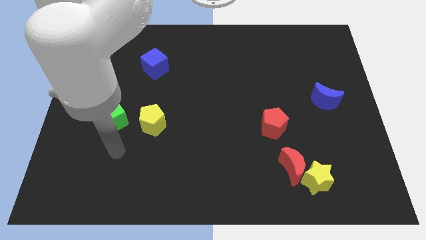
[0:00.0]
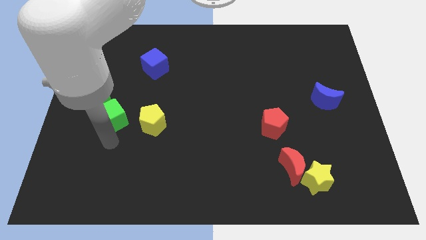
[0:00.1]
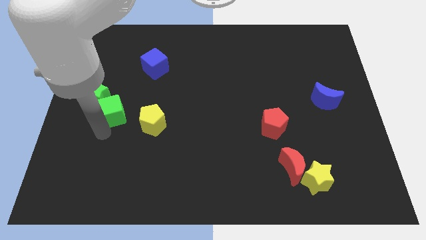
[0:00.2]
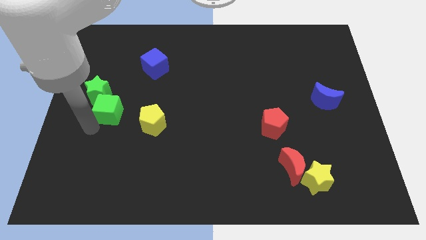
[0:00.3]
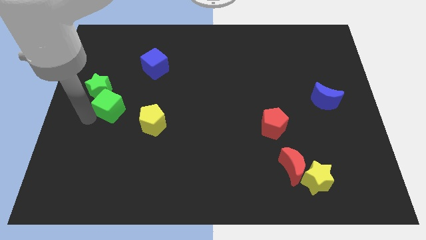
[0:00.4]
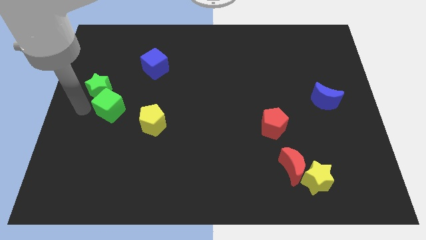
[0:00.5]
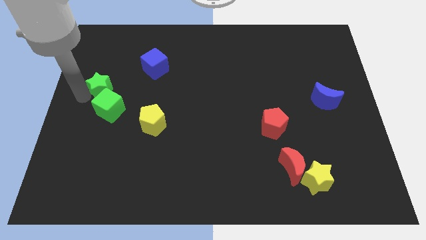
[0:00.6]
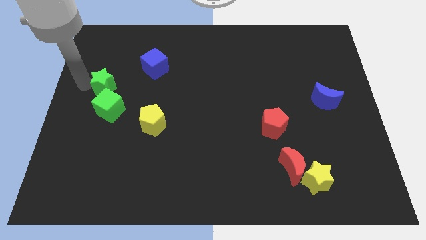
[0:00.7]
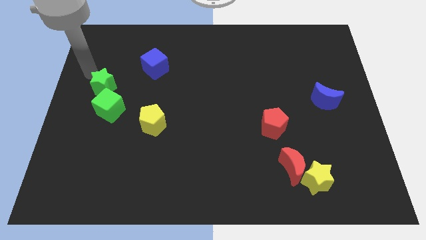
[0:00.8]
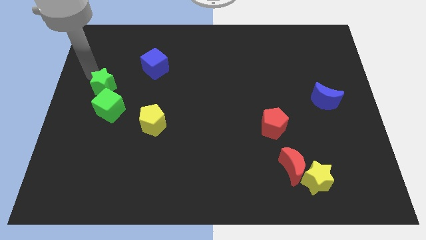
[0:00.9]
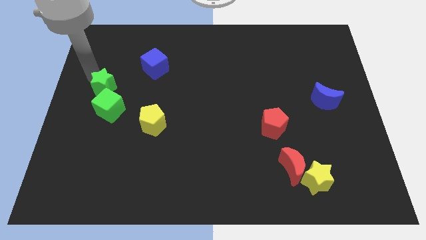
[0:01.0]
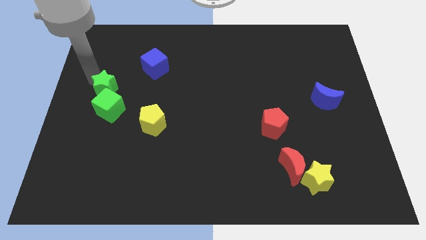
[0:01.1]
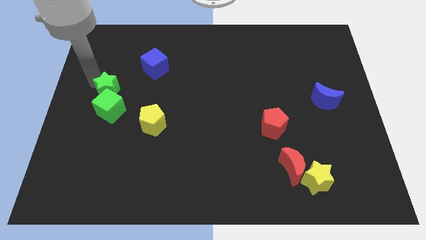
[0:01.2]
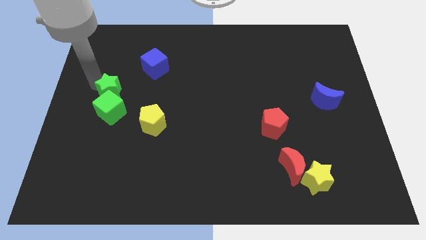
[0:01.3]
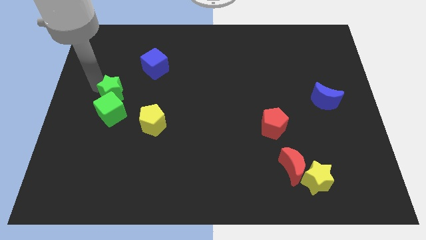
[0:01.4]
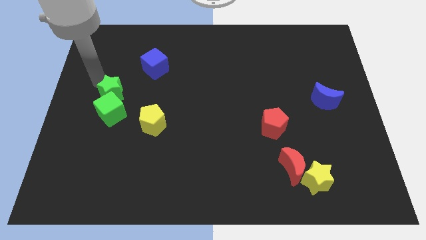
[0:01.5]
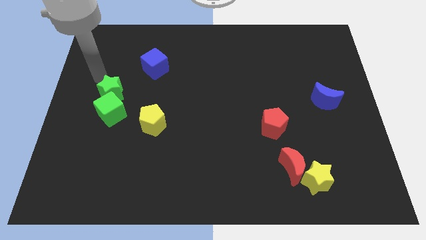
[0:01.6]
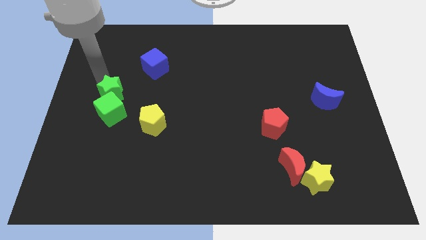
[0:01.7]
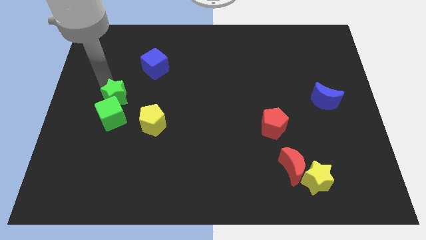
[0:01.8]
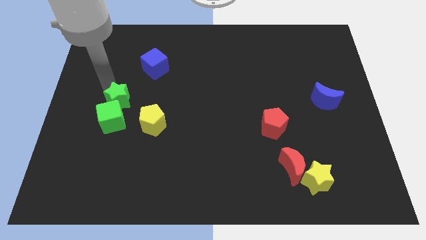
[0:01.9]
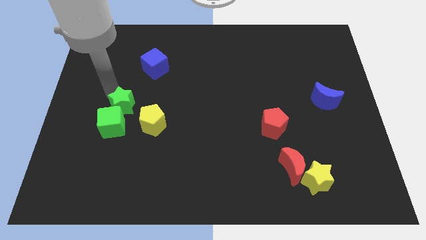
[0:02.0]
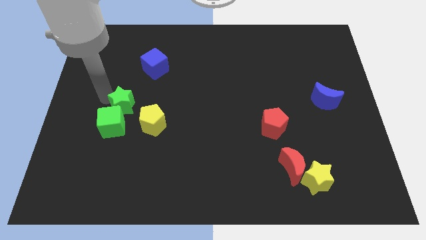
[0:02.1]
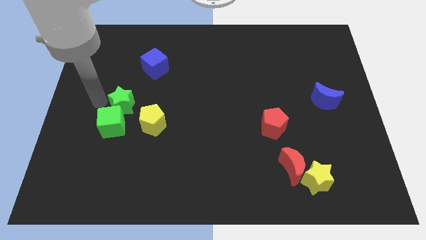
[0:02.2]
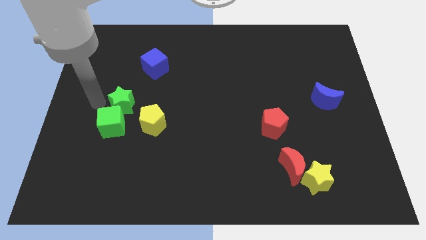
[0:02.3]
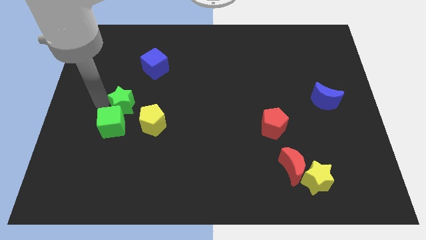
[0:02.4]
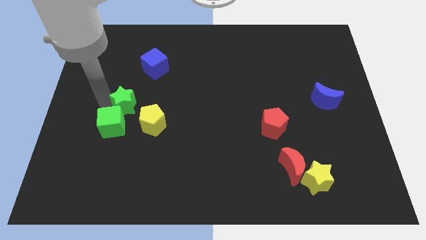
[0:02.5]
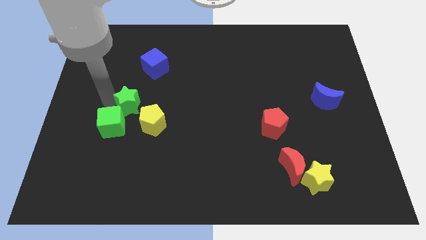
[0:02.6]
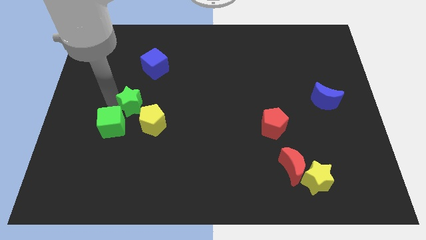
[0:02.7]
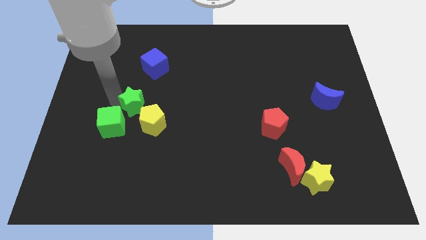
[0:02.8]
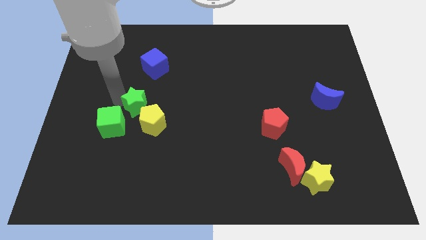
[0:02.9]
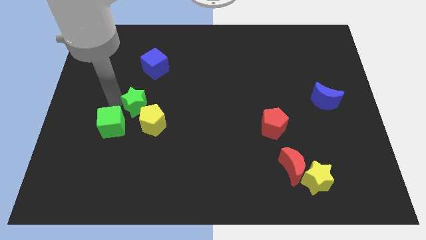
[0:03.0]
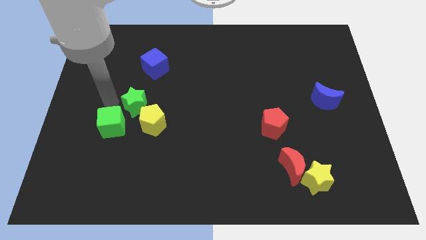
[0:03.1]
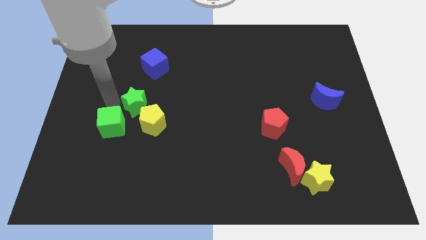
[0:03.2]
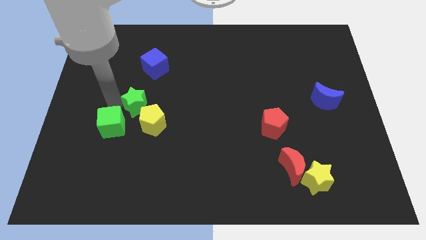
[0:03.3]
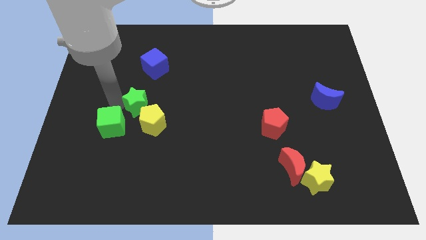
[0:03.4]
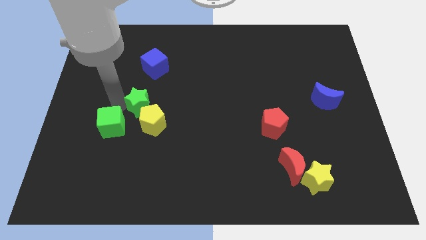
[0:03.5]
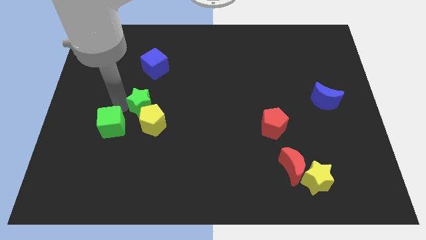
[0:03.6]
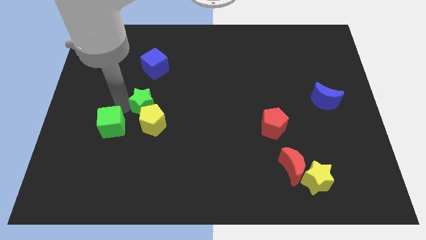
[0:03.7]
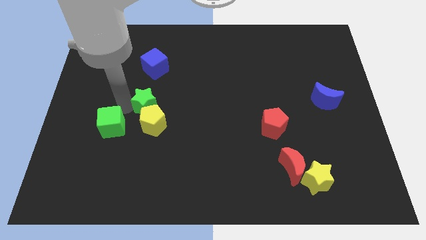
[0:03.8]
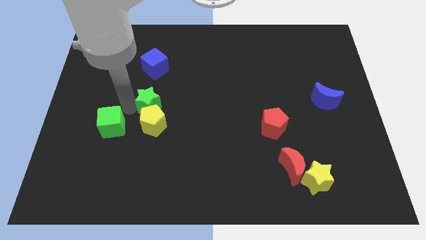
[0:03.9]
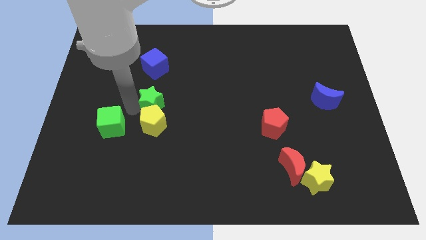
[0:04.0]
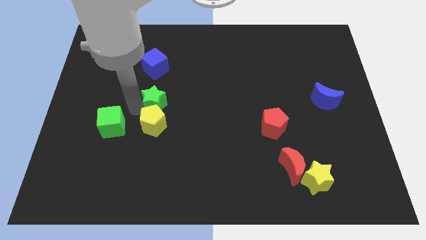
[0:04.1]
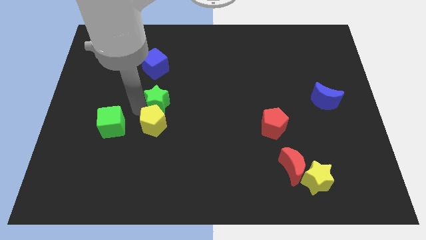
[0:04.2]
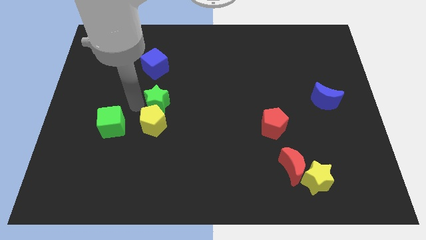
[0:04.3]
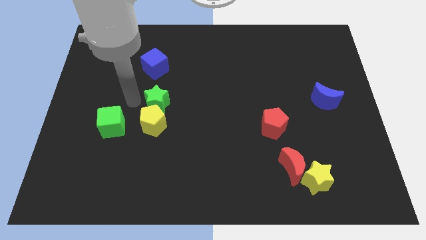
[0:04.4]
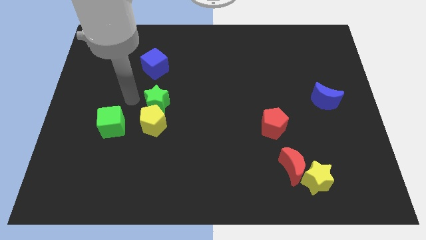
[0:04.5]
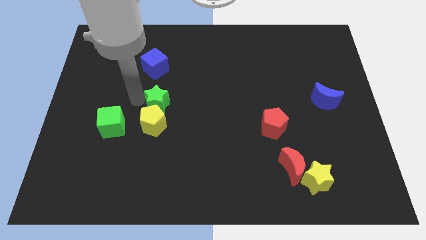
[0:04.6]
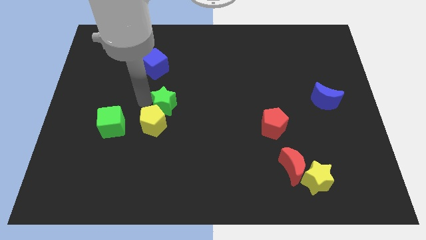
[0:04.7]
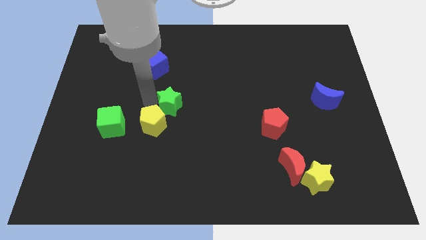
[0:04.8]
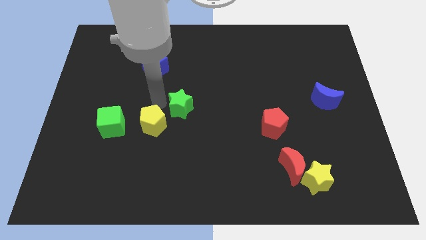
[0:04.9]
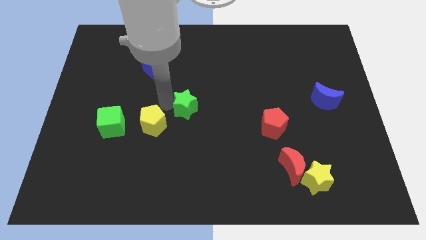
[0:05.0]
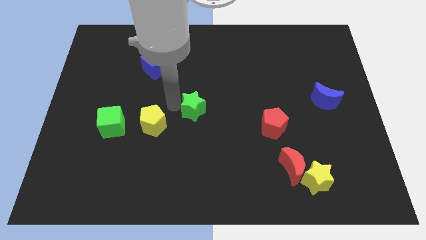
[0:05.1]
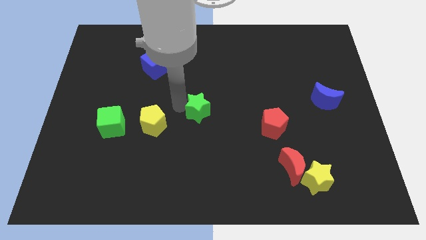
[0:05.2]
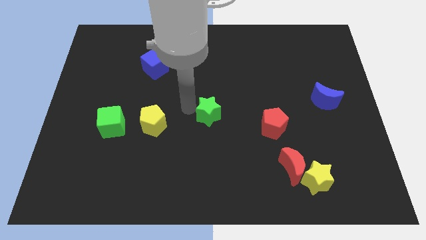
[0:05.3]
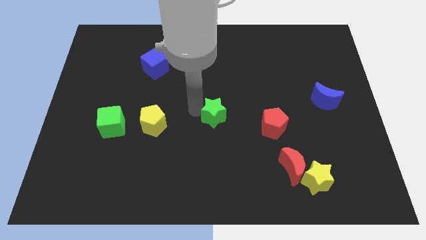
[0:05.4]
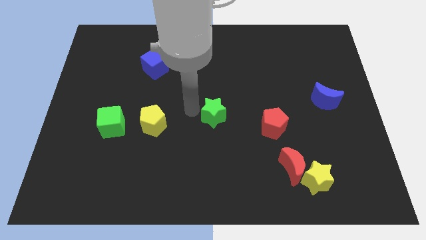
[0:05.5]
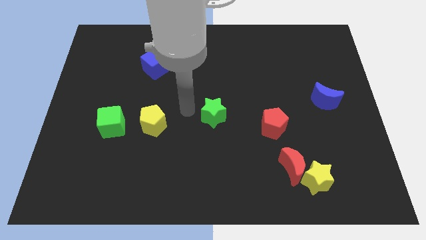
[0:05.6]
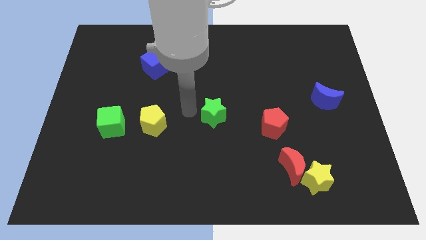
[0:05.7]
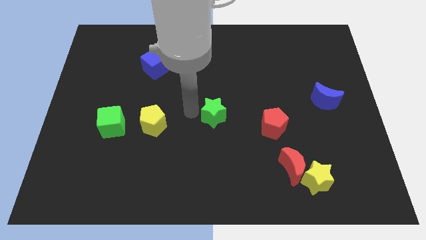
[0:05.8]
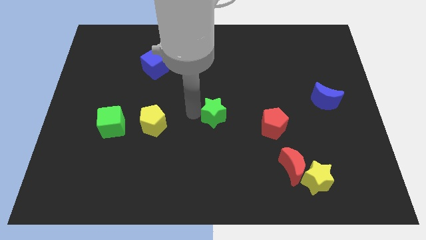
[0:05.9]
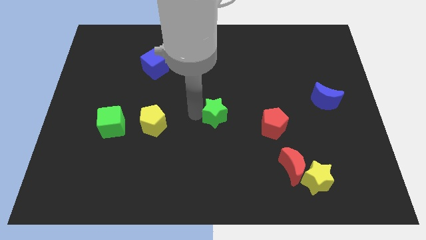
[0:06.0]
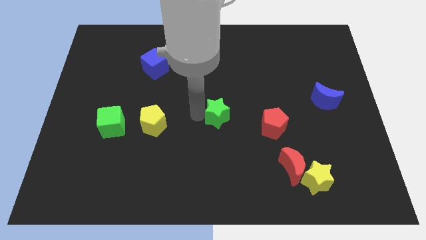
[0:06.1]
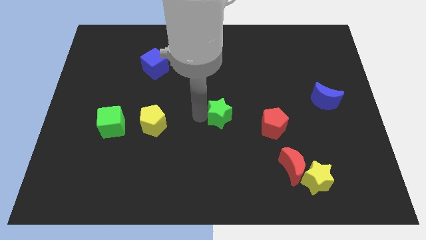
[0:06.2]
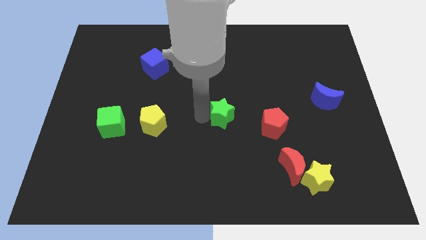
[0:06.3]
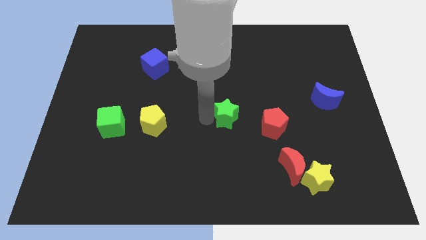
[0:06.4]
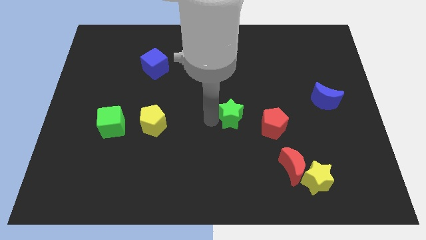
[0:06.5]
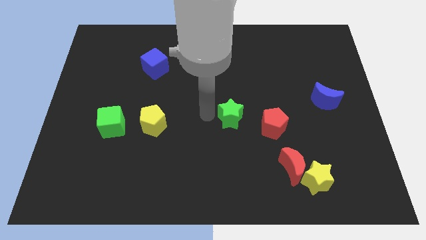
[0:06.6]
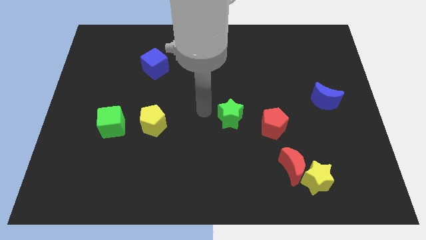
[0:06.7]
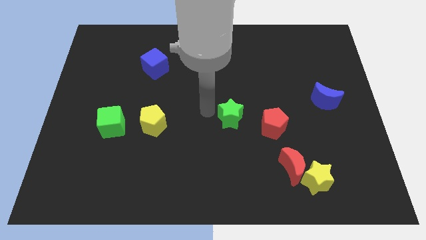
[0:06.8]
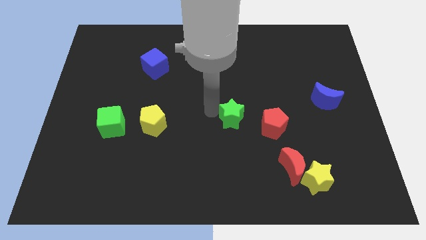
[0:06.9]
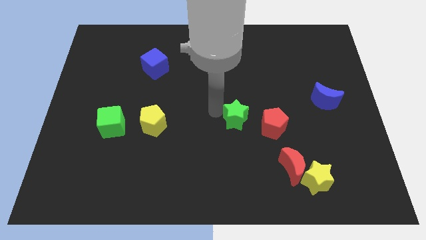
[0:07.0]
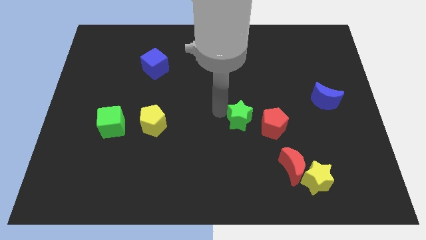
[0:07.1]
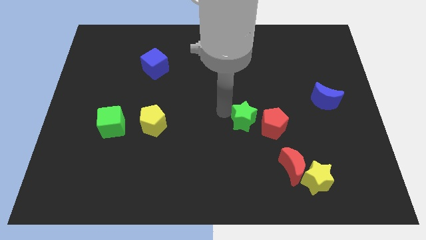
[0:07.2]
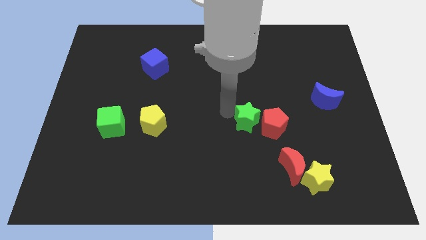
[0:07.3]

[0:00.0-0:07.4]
move the green star next to the red pentagon

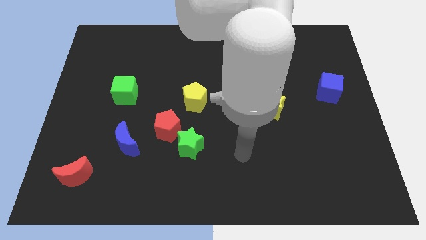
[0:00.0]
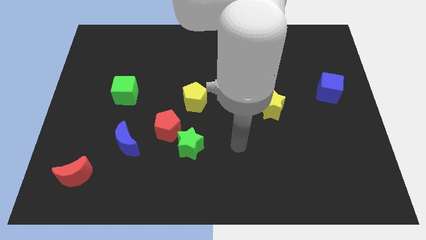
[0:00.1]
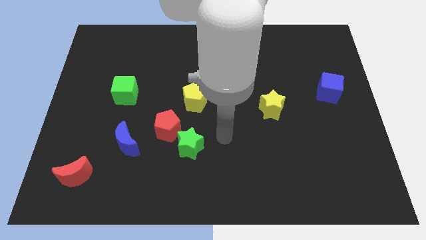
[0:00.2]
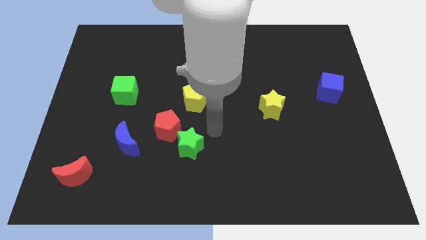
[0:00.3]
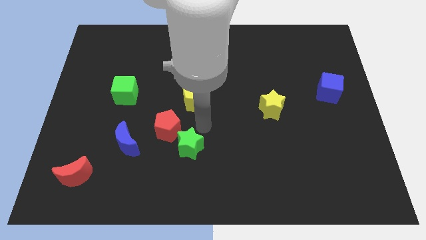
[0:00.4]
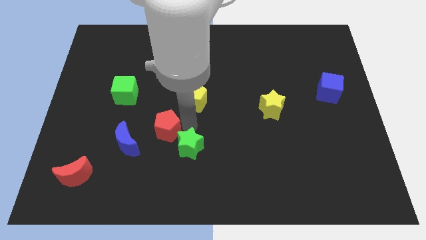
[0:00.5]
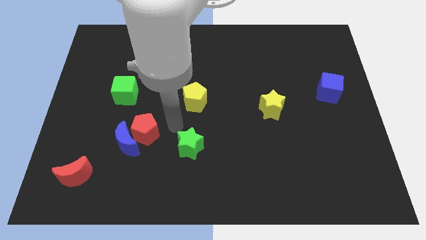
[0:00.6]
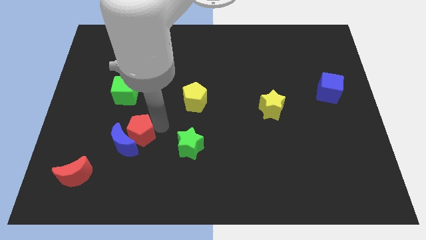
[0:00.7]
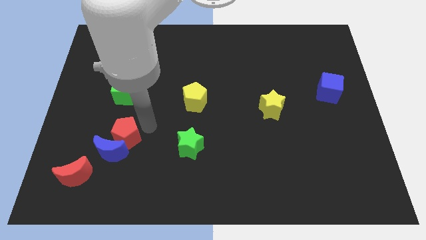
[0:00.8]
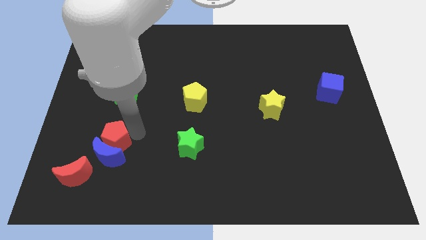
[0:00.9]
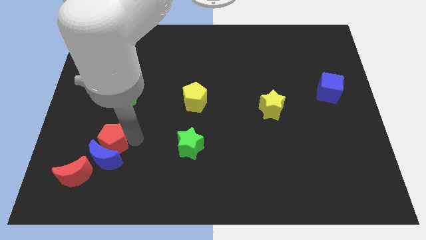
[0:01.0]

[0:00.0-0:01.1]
move the blue moon towards the red moon
